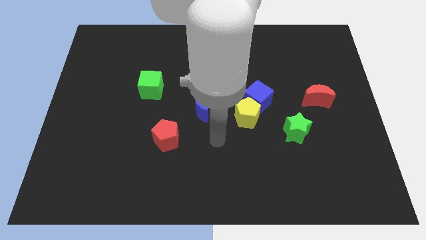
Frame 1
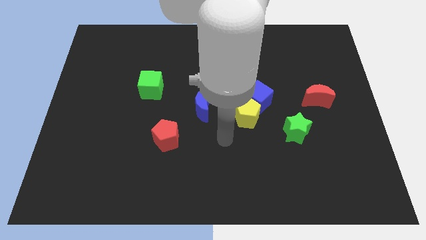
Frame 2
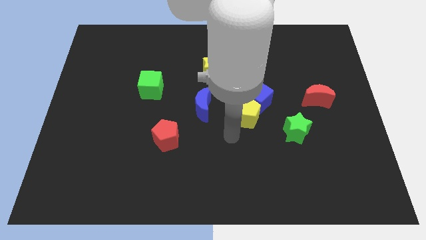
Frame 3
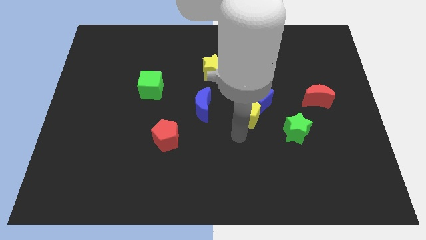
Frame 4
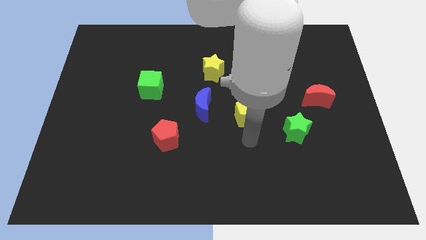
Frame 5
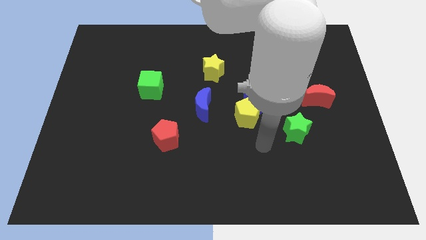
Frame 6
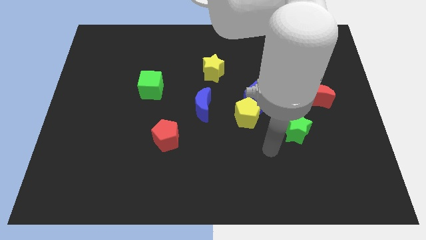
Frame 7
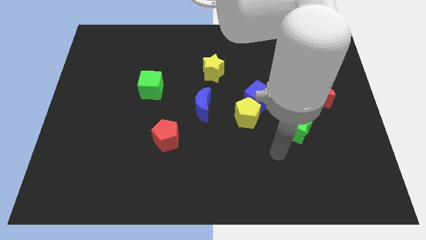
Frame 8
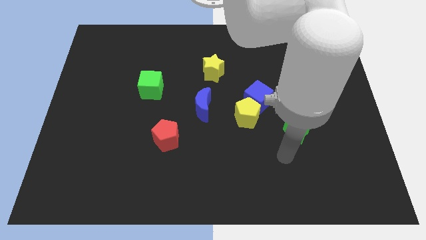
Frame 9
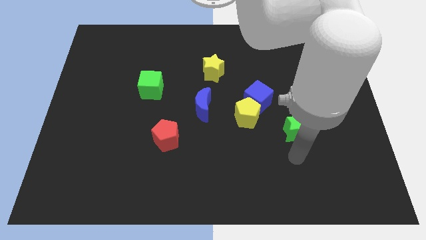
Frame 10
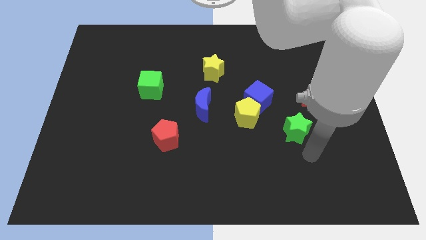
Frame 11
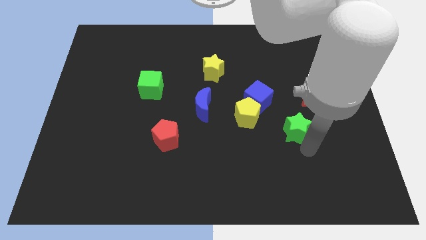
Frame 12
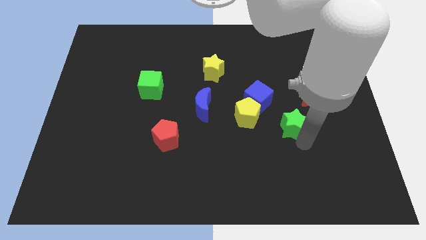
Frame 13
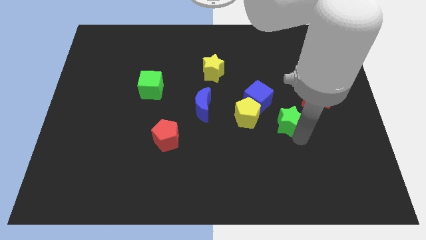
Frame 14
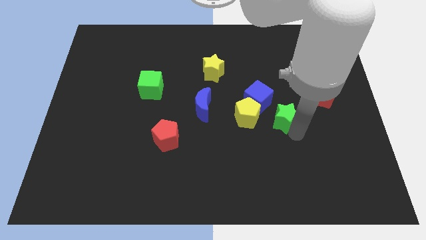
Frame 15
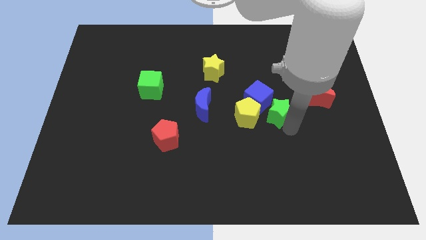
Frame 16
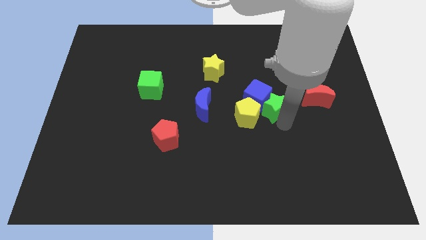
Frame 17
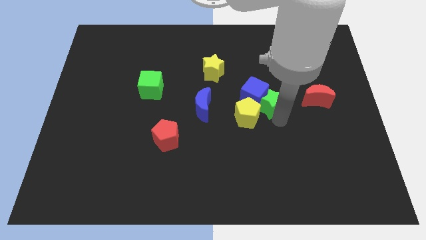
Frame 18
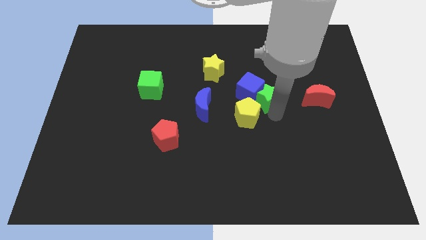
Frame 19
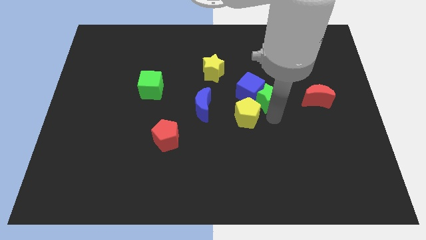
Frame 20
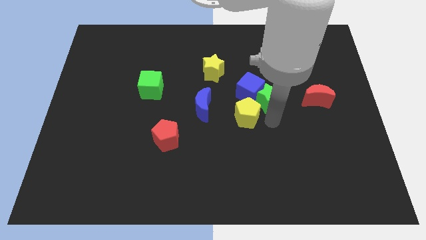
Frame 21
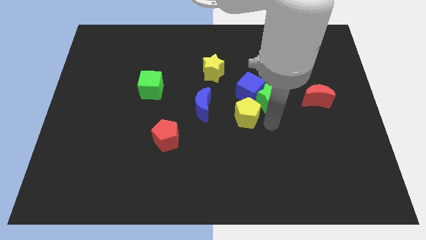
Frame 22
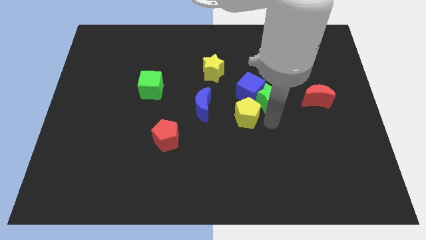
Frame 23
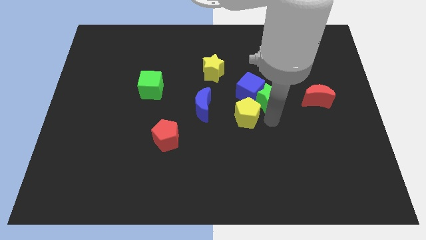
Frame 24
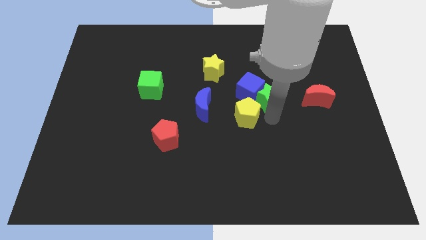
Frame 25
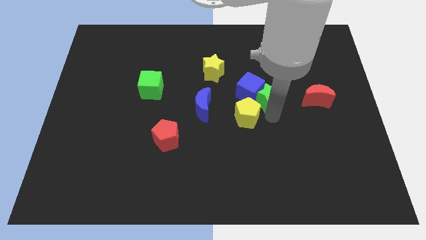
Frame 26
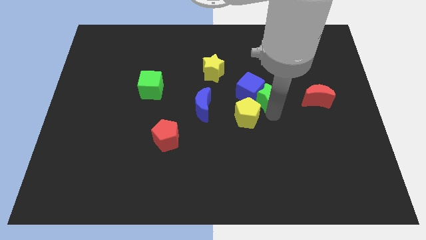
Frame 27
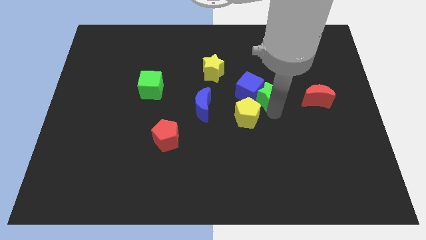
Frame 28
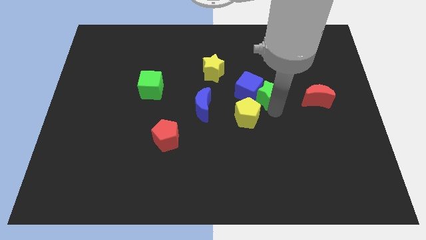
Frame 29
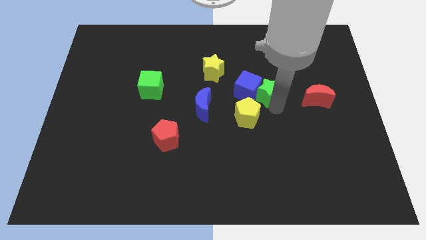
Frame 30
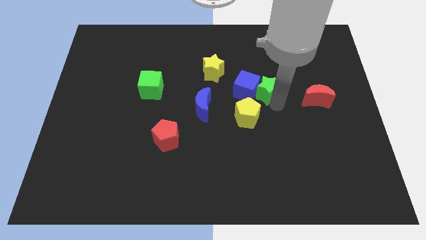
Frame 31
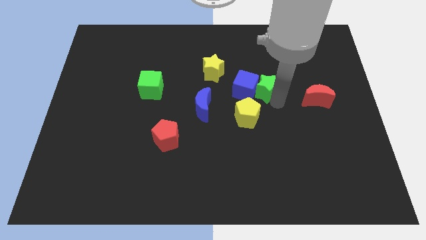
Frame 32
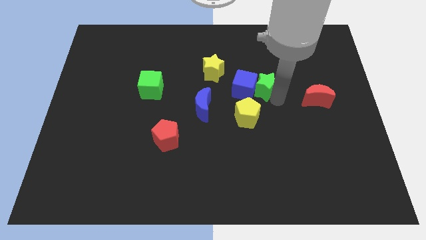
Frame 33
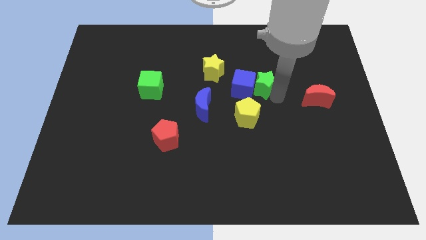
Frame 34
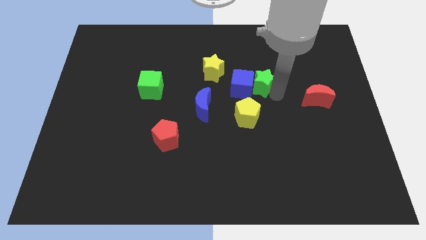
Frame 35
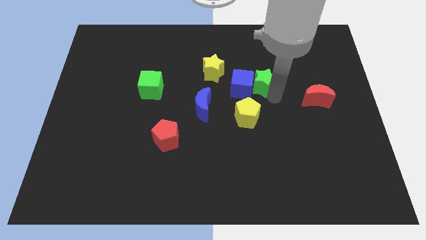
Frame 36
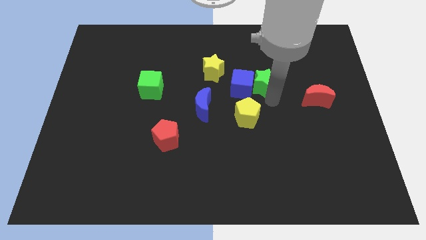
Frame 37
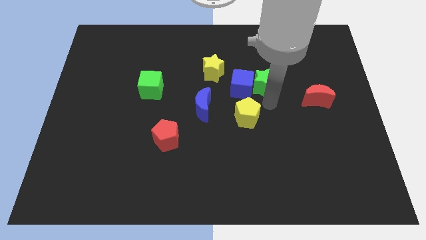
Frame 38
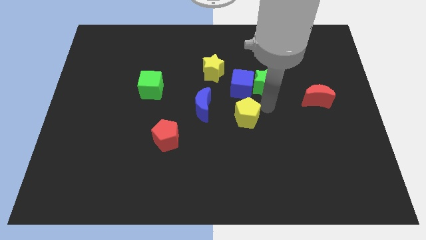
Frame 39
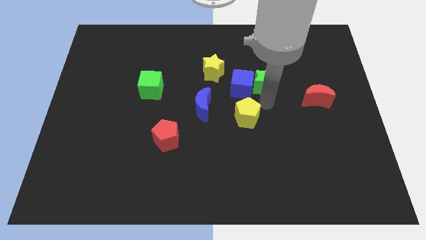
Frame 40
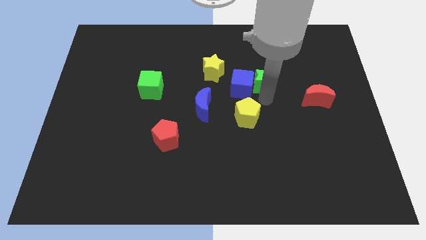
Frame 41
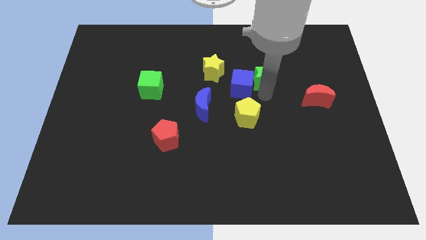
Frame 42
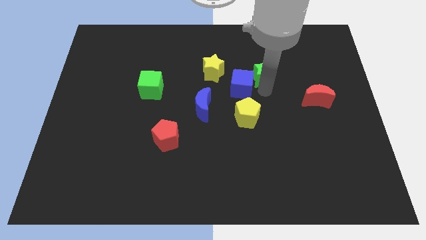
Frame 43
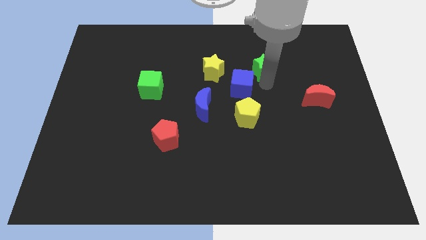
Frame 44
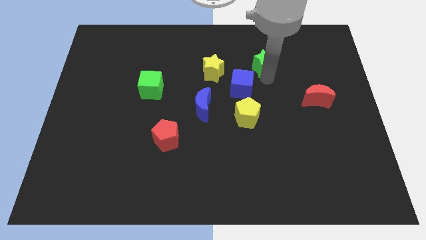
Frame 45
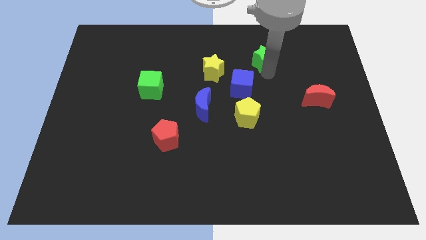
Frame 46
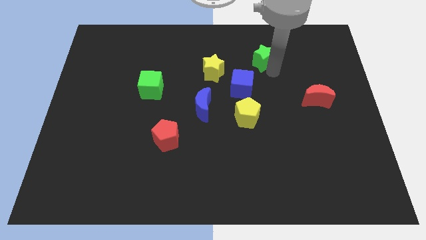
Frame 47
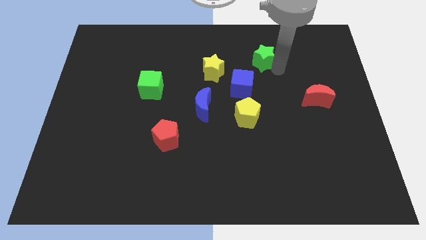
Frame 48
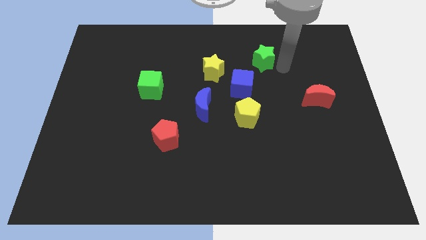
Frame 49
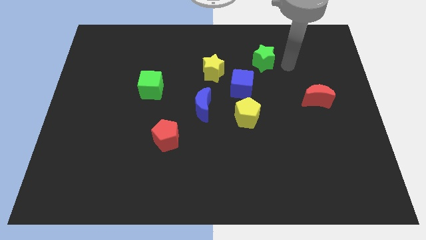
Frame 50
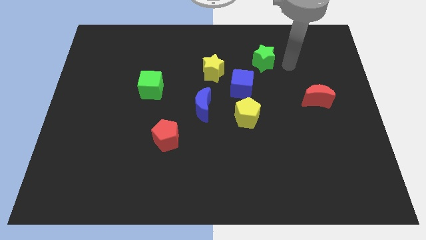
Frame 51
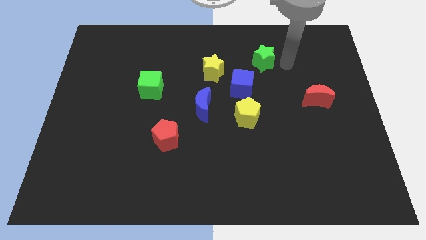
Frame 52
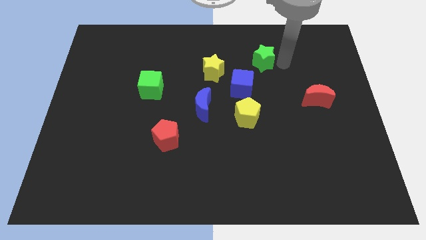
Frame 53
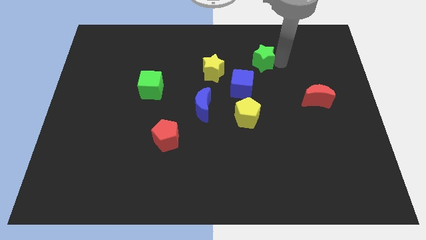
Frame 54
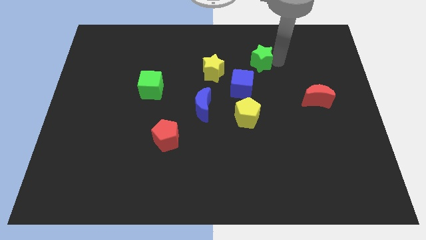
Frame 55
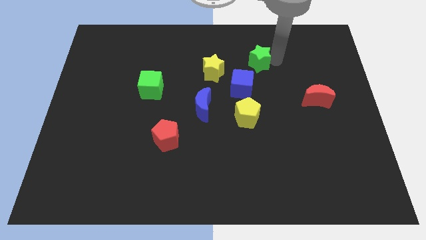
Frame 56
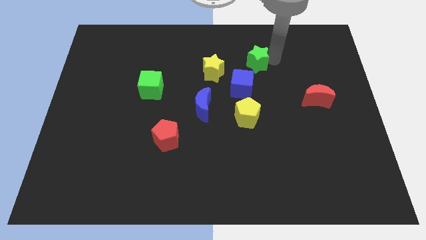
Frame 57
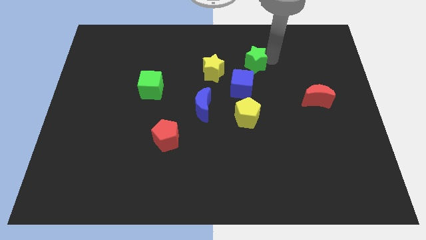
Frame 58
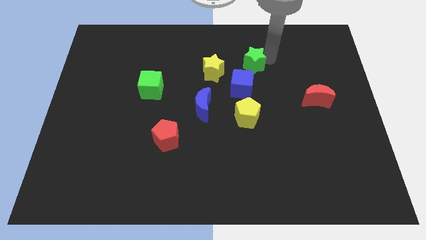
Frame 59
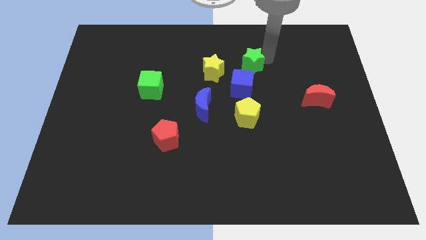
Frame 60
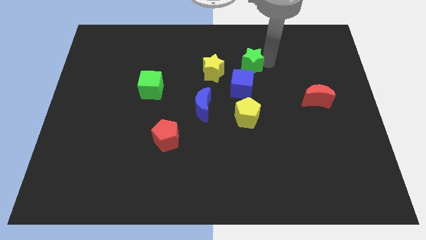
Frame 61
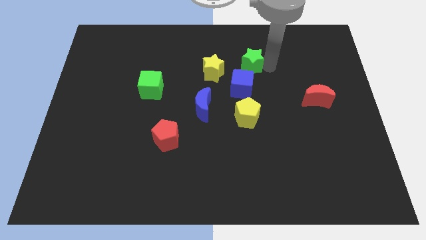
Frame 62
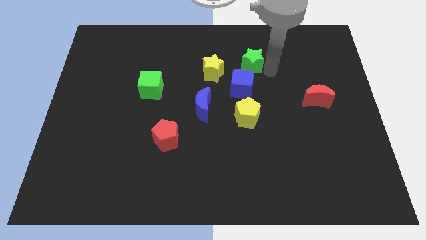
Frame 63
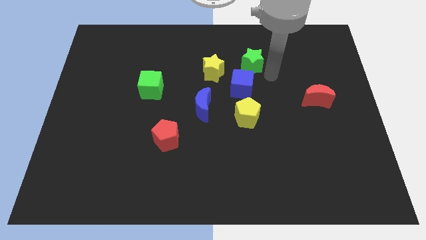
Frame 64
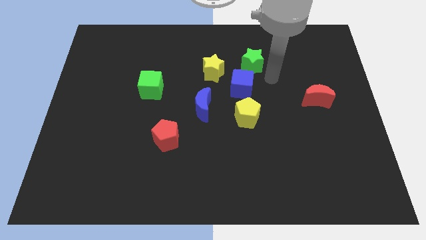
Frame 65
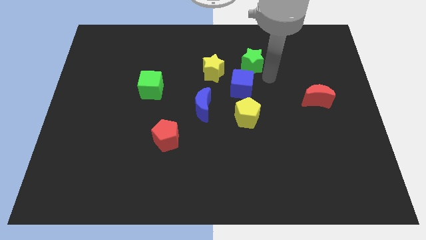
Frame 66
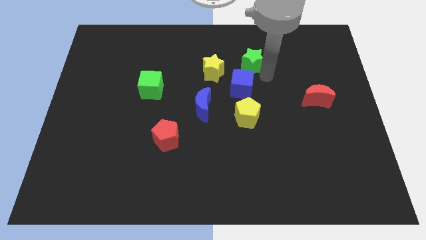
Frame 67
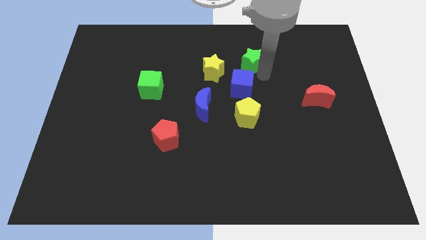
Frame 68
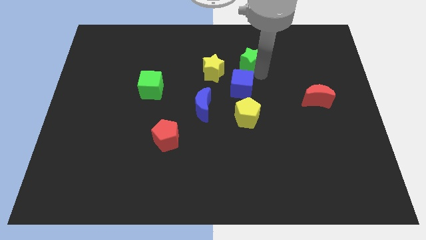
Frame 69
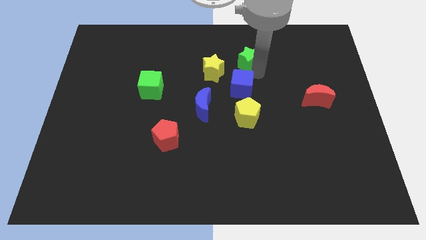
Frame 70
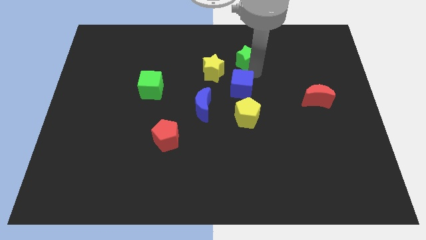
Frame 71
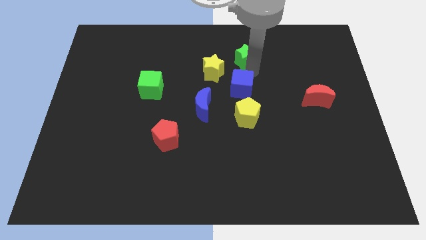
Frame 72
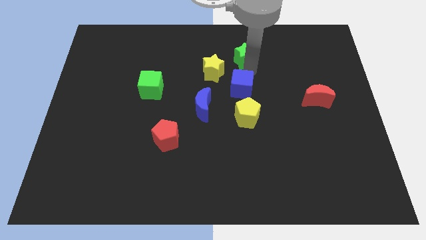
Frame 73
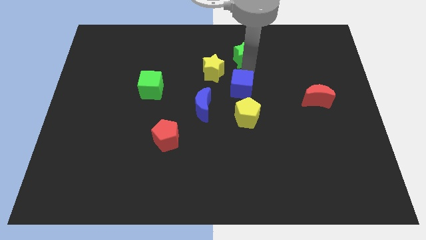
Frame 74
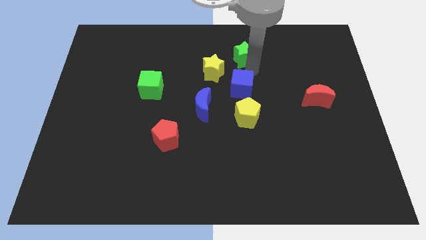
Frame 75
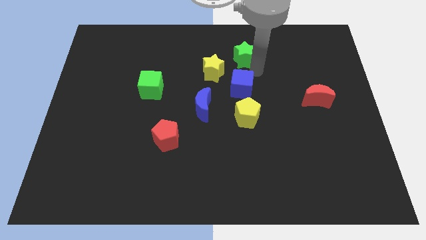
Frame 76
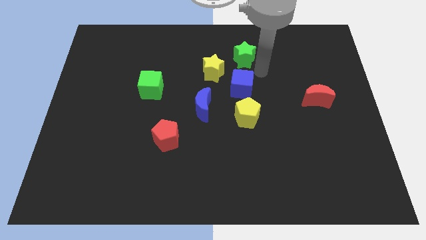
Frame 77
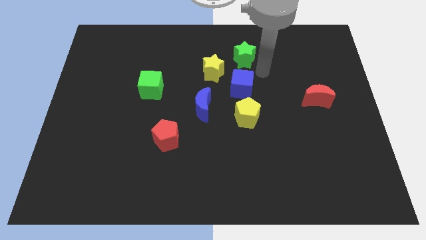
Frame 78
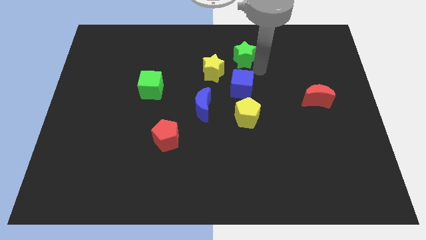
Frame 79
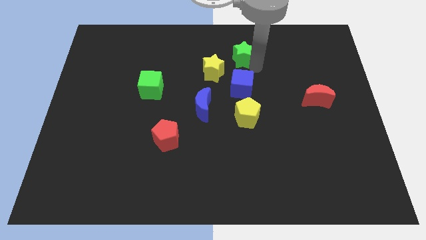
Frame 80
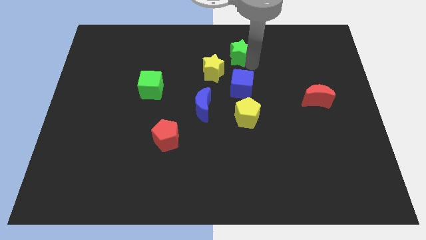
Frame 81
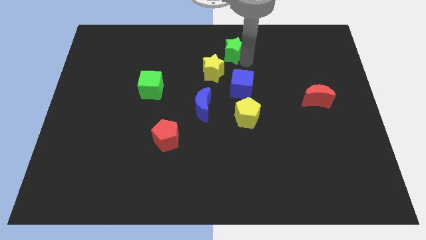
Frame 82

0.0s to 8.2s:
slide the green star to the towards your base
